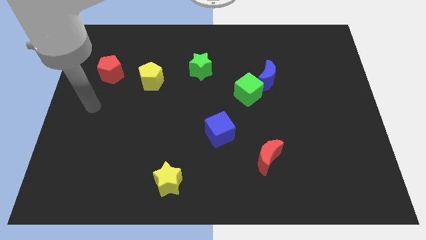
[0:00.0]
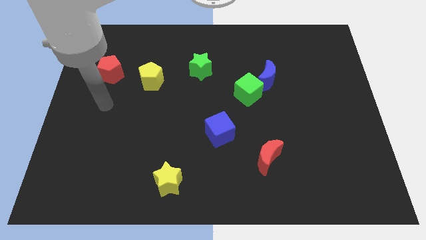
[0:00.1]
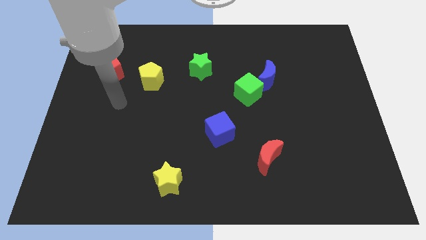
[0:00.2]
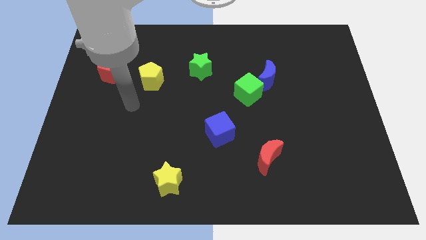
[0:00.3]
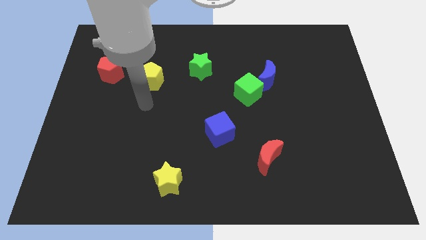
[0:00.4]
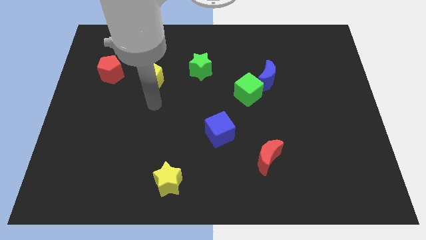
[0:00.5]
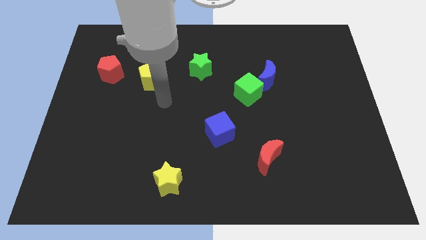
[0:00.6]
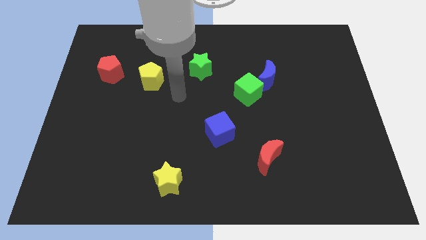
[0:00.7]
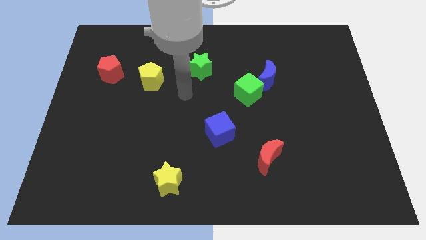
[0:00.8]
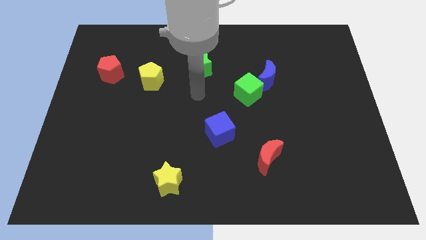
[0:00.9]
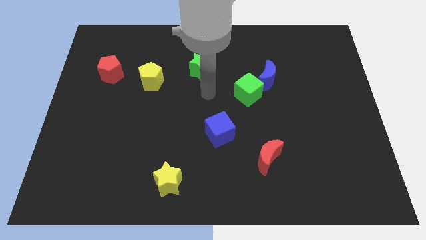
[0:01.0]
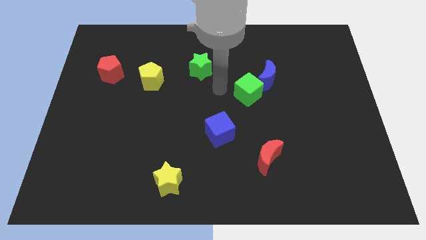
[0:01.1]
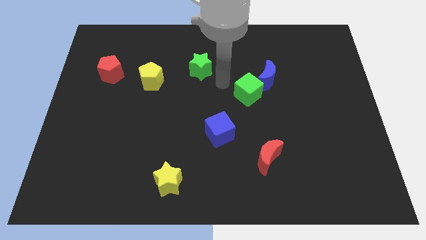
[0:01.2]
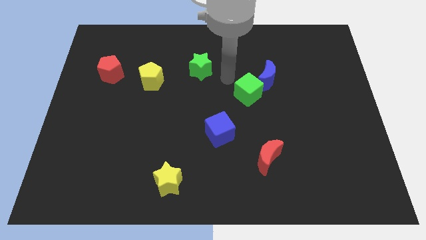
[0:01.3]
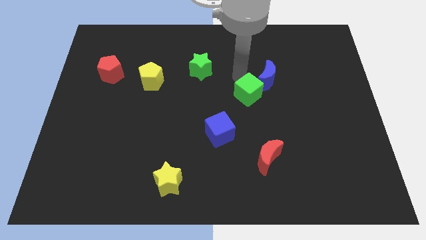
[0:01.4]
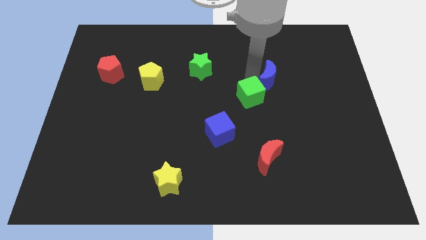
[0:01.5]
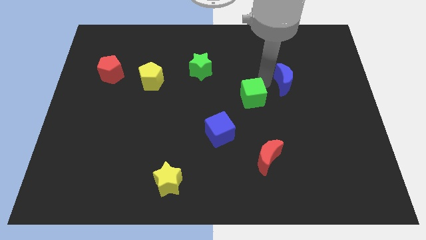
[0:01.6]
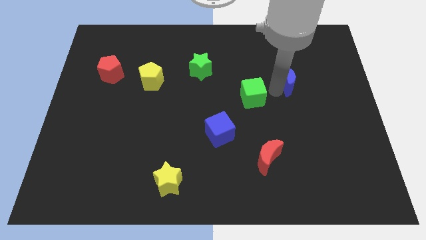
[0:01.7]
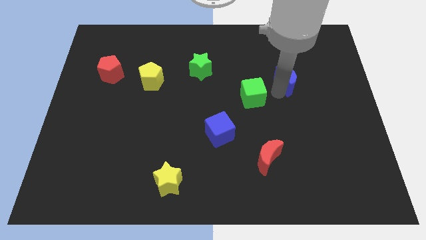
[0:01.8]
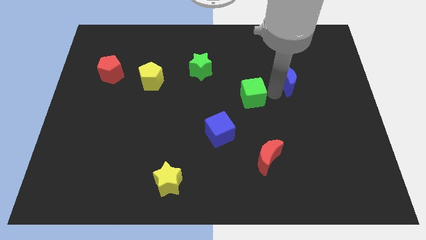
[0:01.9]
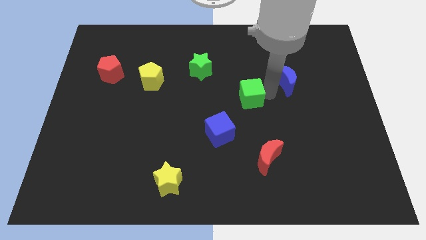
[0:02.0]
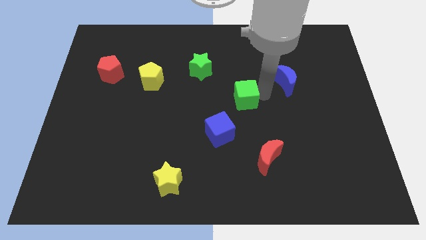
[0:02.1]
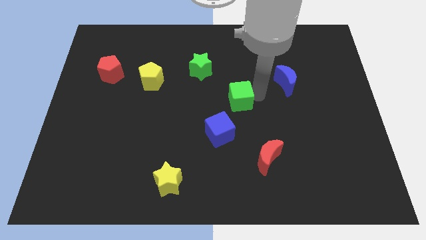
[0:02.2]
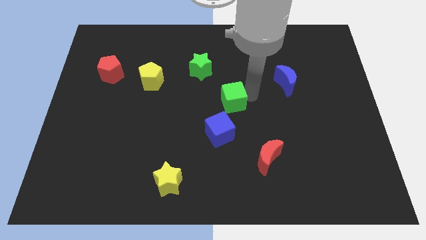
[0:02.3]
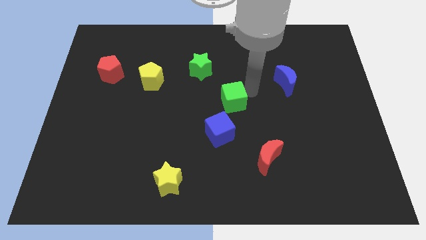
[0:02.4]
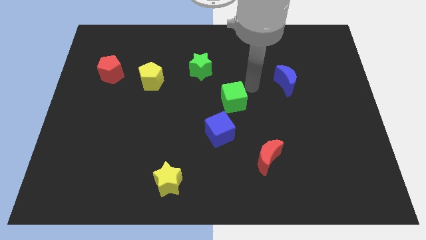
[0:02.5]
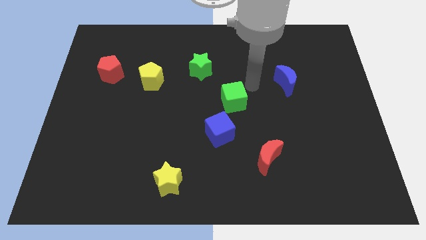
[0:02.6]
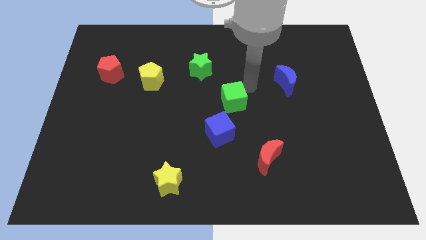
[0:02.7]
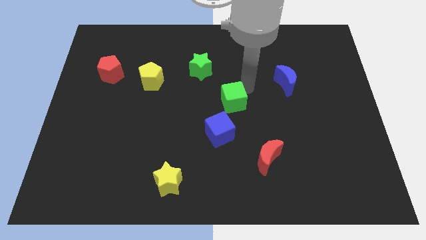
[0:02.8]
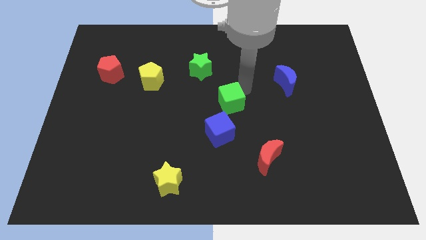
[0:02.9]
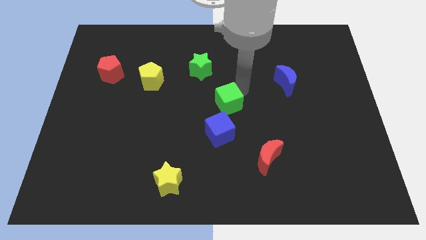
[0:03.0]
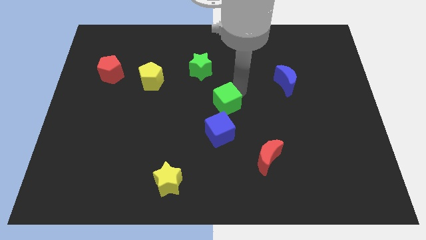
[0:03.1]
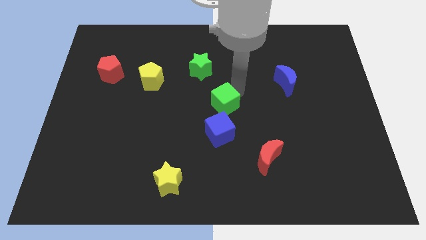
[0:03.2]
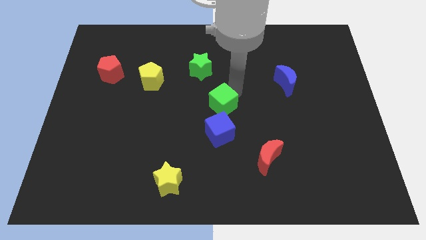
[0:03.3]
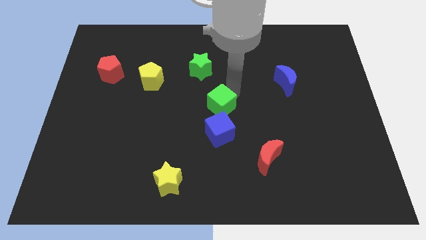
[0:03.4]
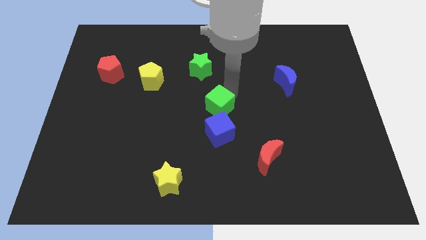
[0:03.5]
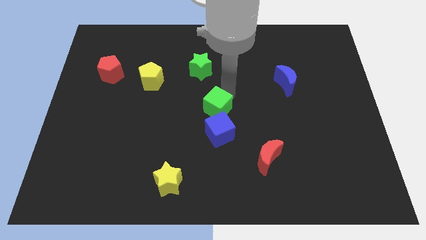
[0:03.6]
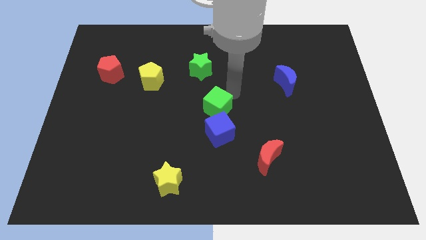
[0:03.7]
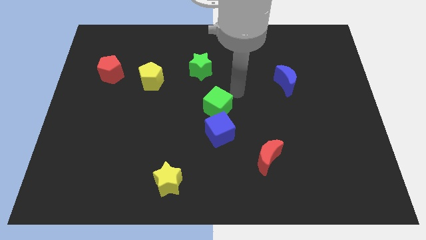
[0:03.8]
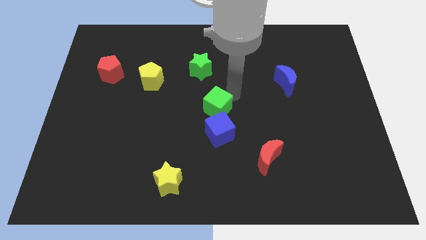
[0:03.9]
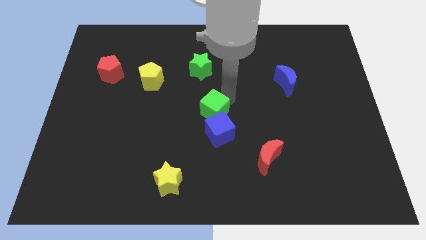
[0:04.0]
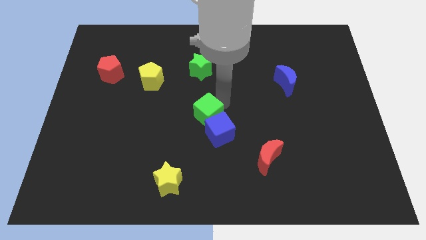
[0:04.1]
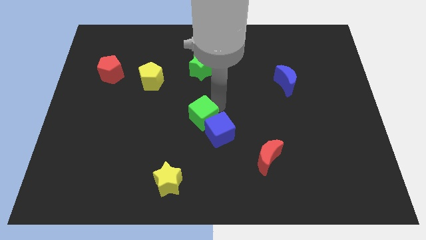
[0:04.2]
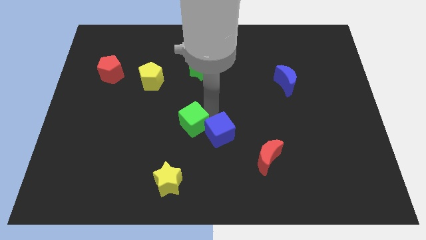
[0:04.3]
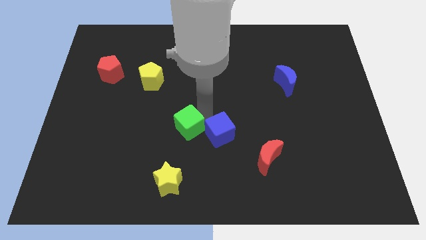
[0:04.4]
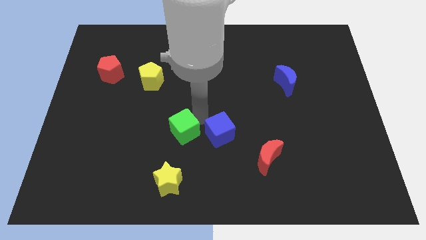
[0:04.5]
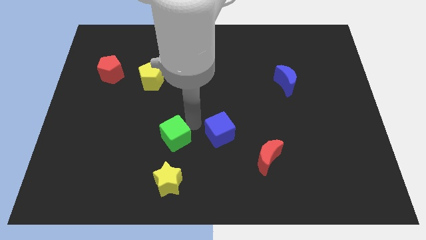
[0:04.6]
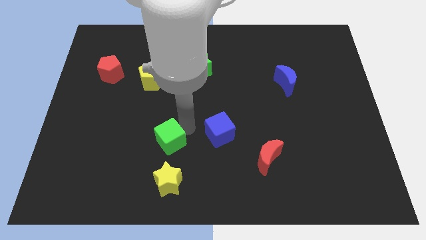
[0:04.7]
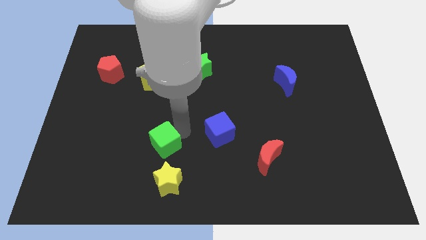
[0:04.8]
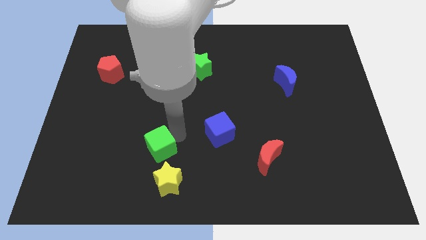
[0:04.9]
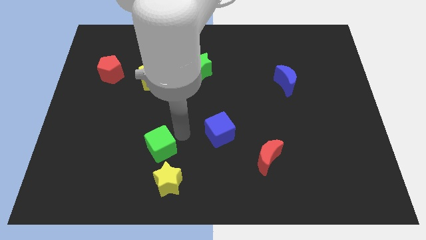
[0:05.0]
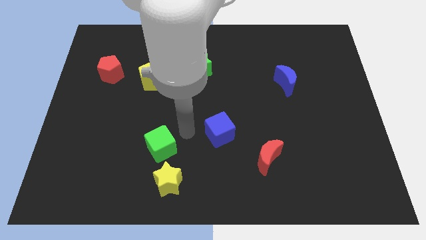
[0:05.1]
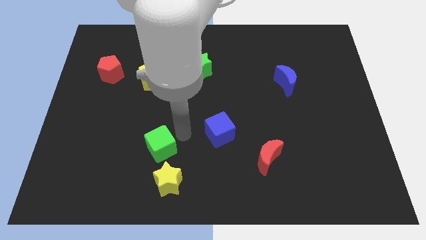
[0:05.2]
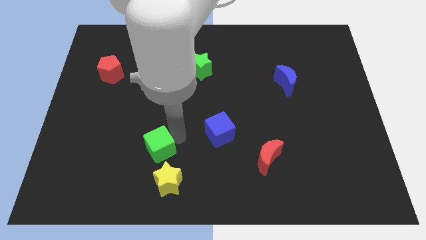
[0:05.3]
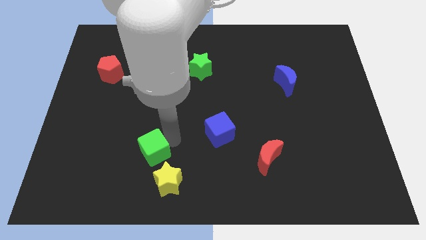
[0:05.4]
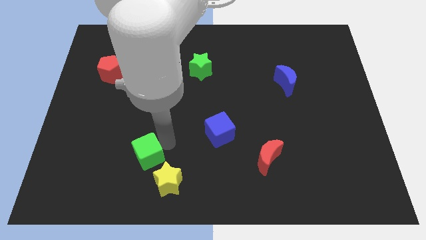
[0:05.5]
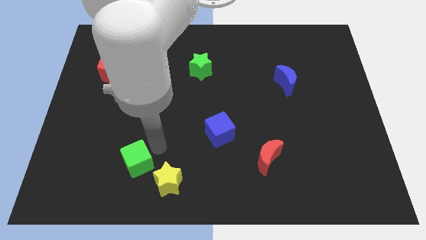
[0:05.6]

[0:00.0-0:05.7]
put the green cube to the left side of the yellow star

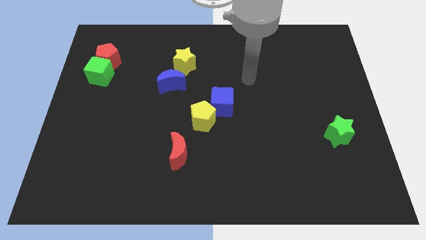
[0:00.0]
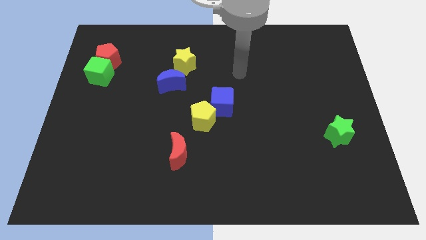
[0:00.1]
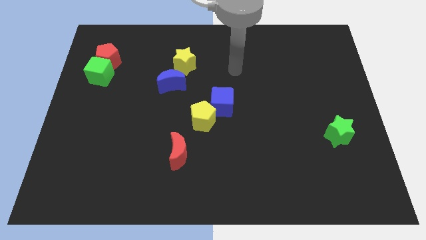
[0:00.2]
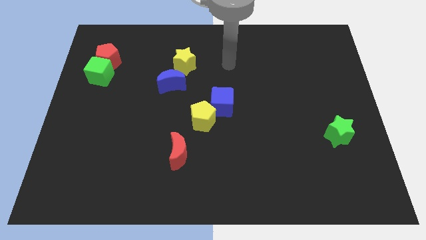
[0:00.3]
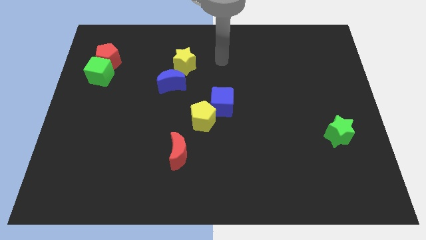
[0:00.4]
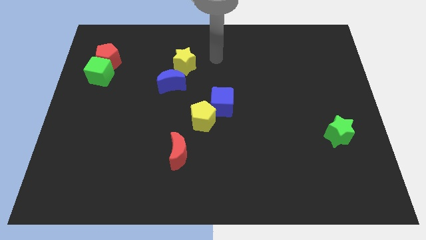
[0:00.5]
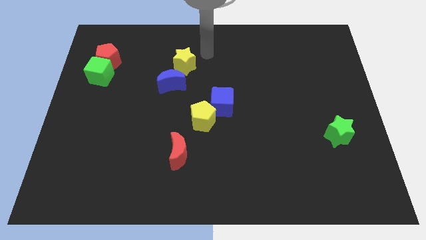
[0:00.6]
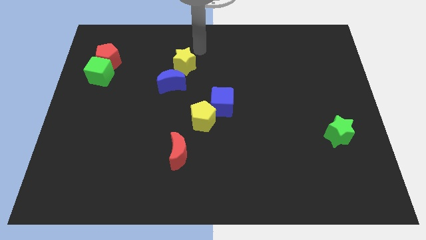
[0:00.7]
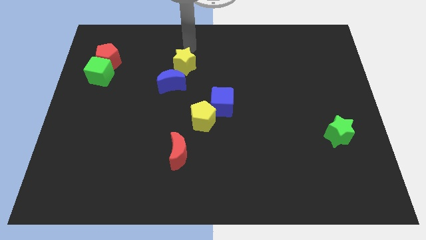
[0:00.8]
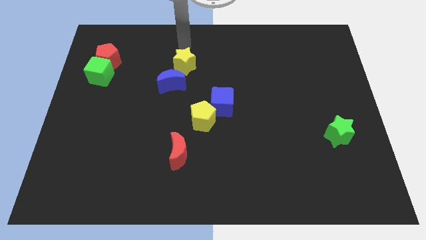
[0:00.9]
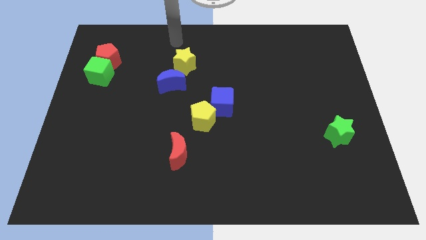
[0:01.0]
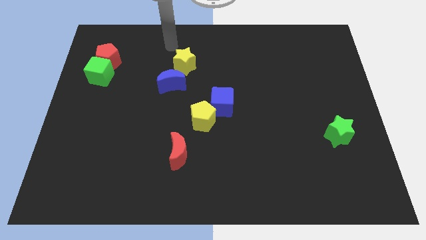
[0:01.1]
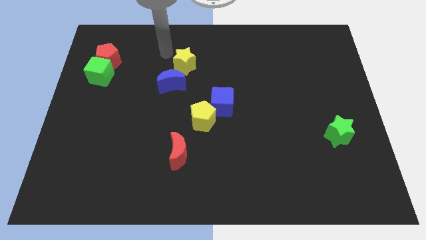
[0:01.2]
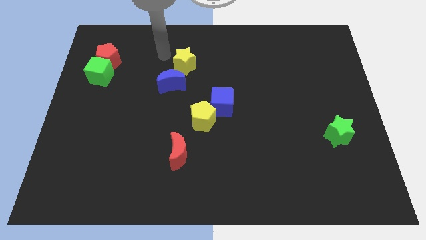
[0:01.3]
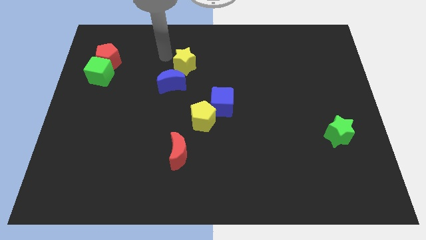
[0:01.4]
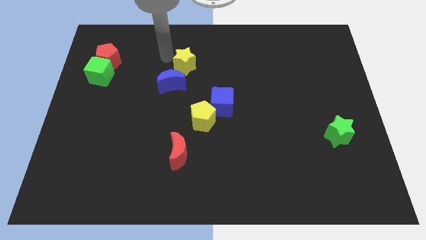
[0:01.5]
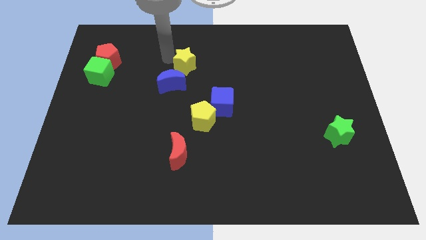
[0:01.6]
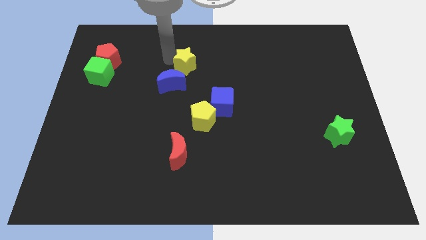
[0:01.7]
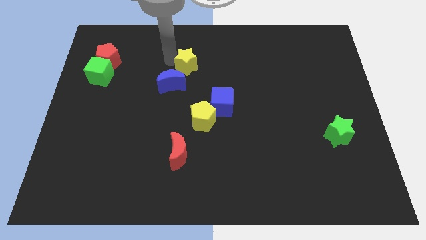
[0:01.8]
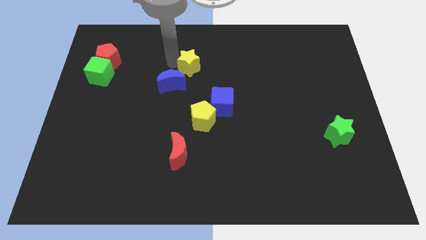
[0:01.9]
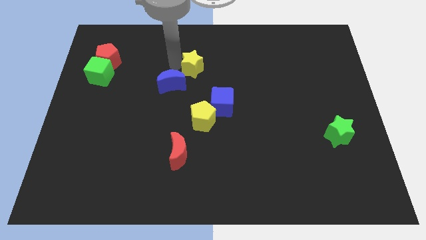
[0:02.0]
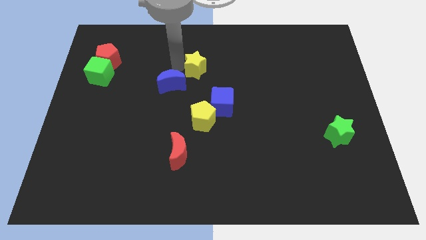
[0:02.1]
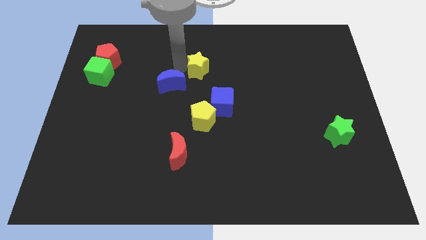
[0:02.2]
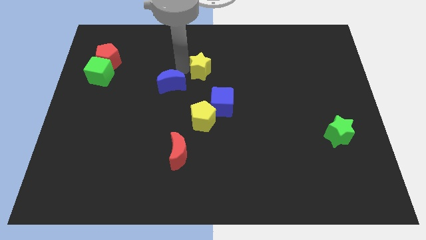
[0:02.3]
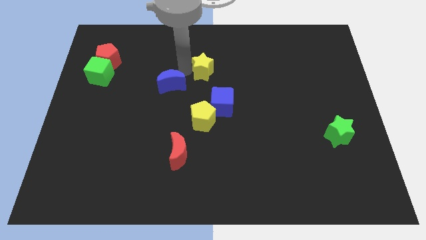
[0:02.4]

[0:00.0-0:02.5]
put the yellow star above the blue cube
